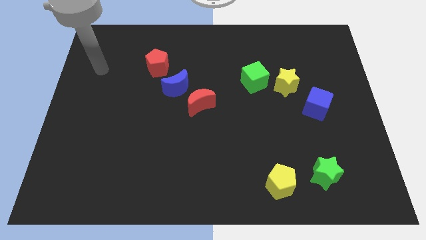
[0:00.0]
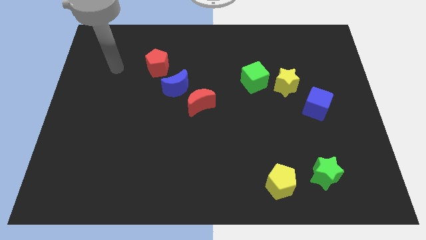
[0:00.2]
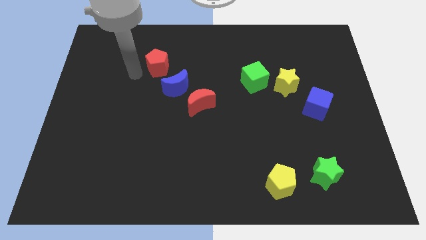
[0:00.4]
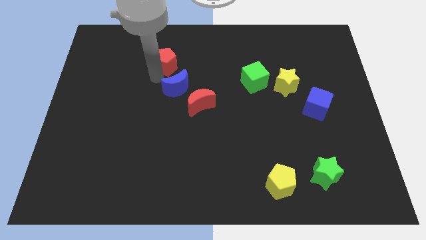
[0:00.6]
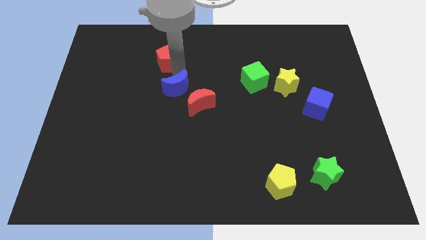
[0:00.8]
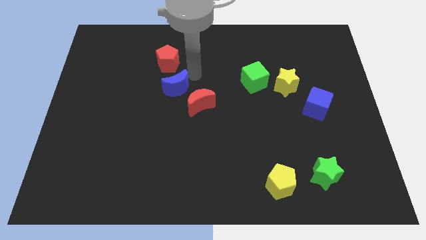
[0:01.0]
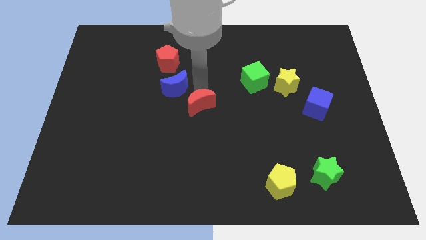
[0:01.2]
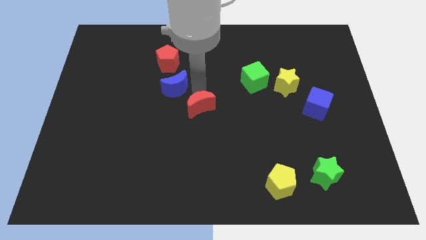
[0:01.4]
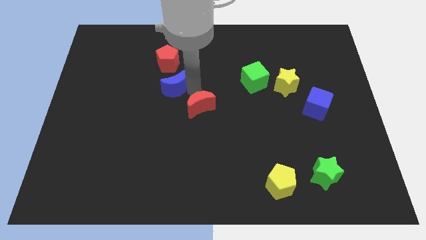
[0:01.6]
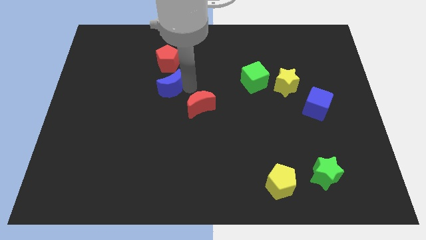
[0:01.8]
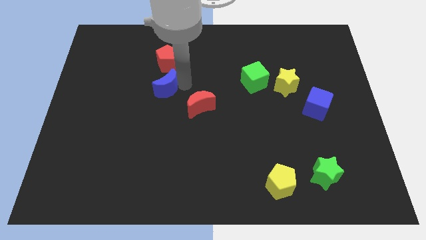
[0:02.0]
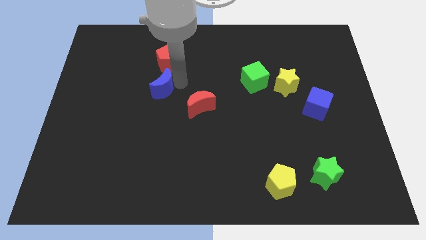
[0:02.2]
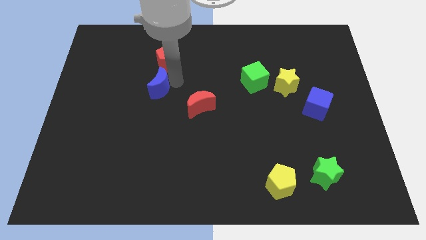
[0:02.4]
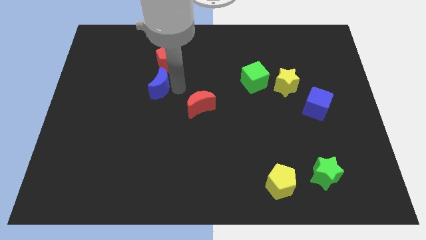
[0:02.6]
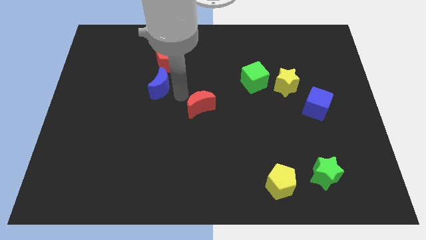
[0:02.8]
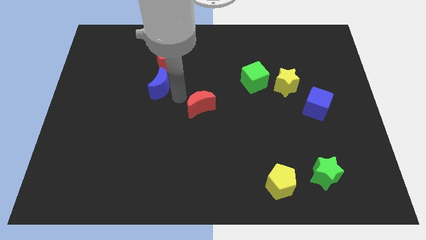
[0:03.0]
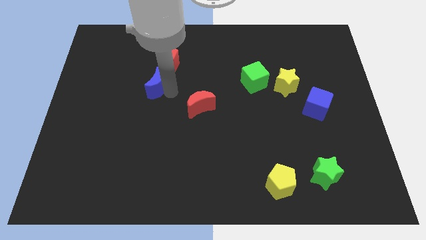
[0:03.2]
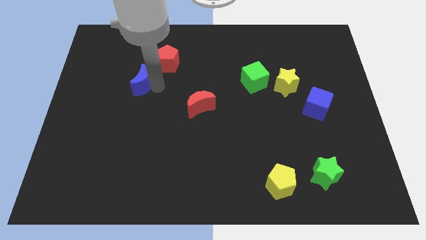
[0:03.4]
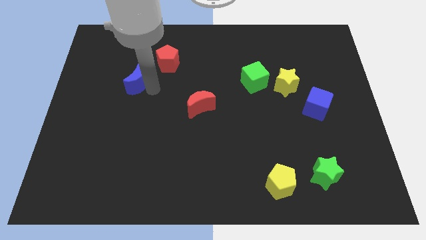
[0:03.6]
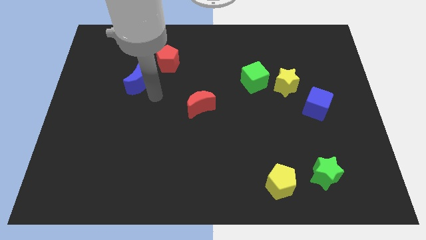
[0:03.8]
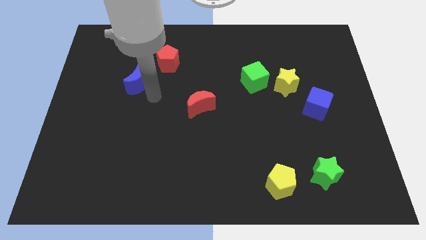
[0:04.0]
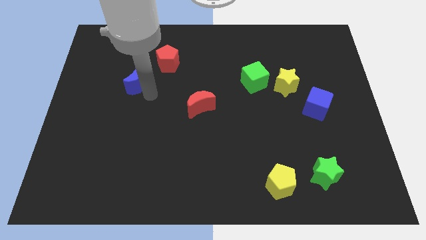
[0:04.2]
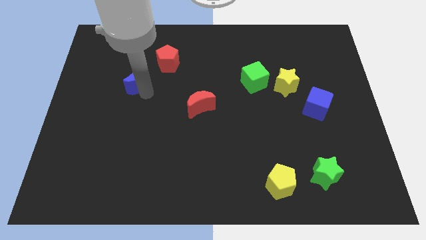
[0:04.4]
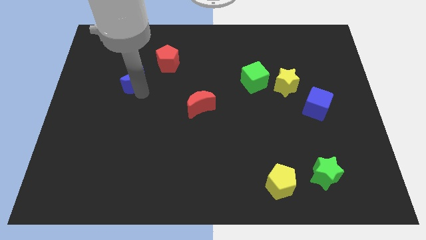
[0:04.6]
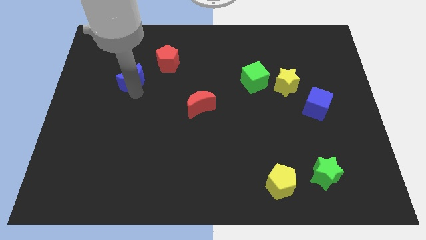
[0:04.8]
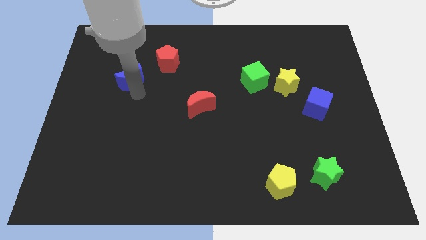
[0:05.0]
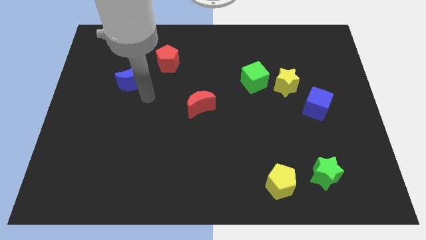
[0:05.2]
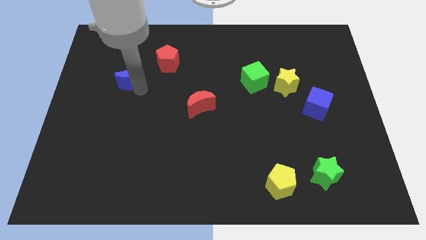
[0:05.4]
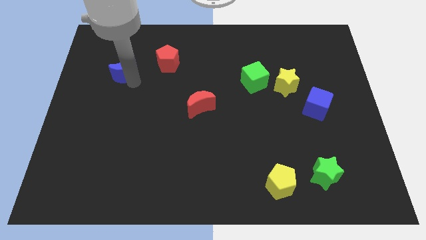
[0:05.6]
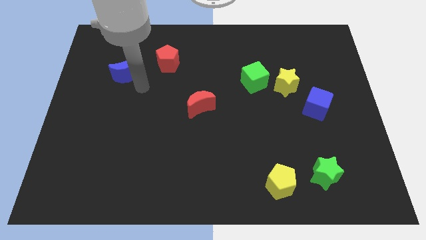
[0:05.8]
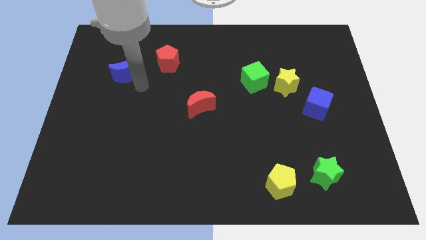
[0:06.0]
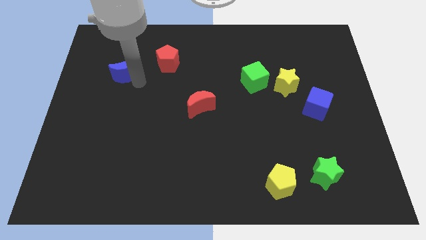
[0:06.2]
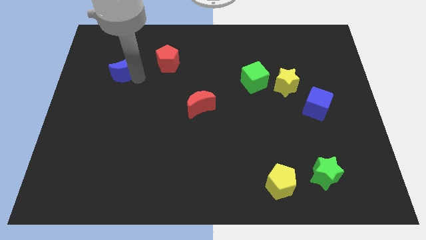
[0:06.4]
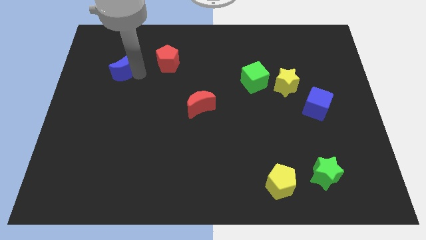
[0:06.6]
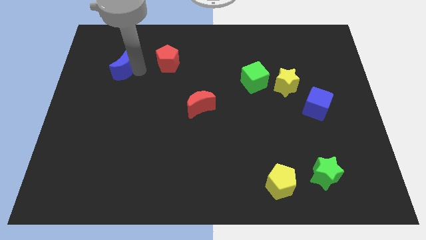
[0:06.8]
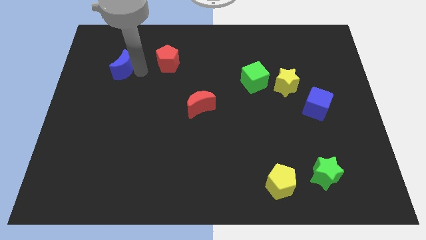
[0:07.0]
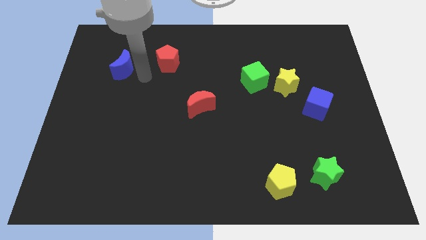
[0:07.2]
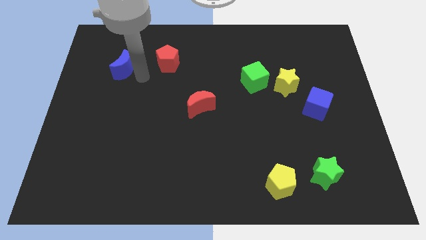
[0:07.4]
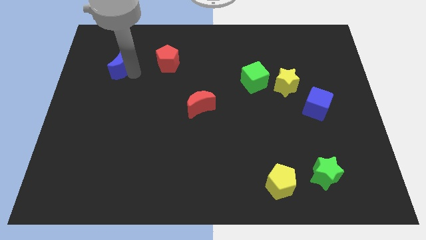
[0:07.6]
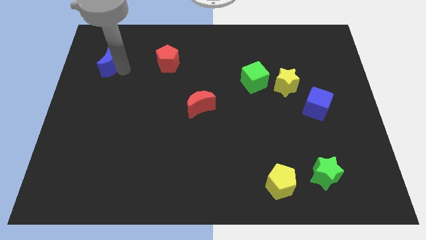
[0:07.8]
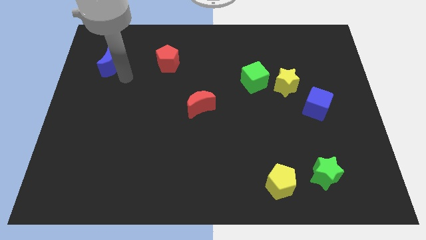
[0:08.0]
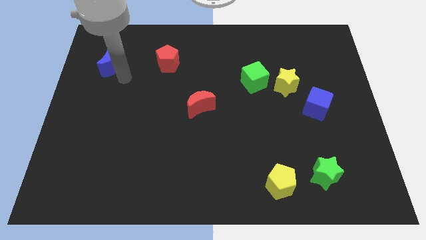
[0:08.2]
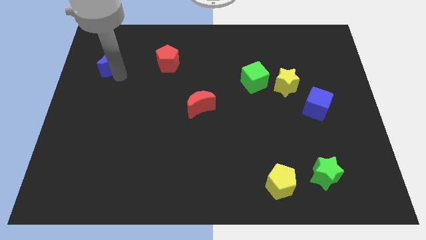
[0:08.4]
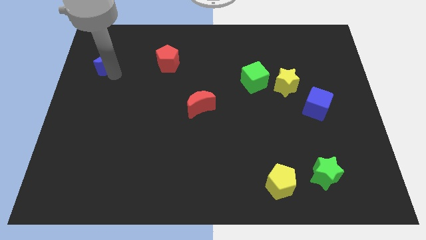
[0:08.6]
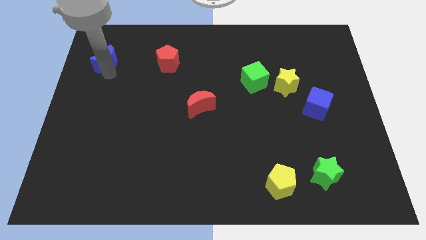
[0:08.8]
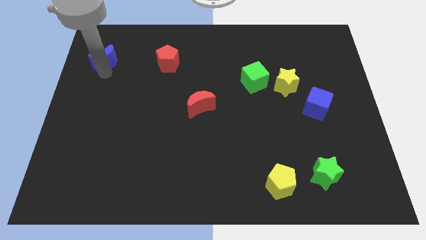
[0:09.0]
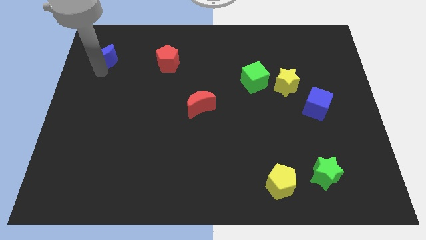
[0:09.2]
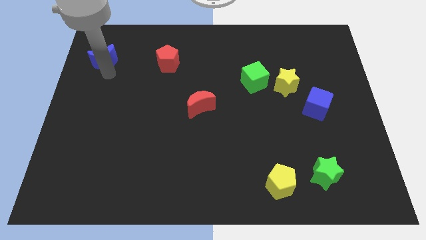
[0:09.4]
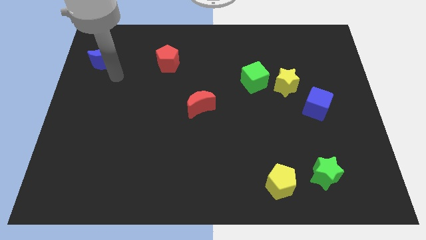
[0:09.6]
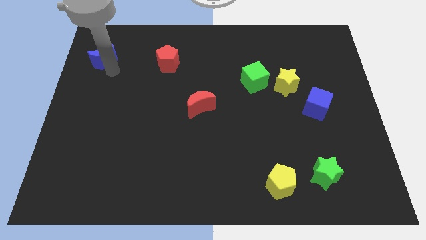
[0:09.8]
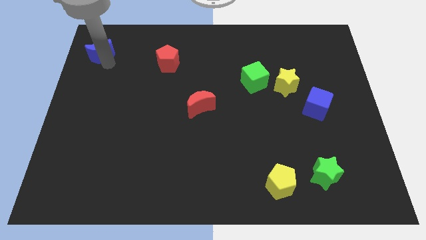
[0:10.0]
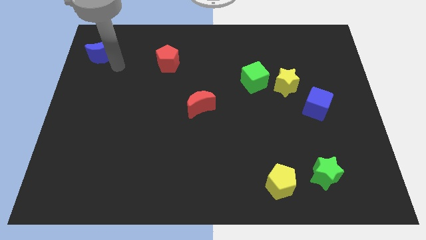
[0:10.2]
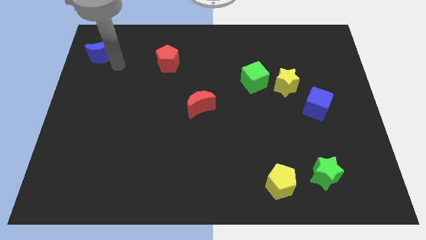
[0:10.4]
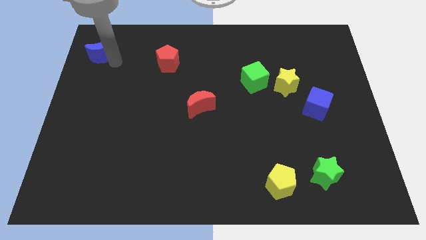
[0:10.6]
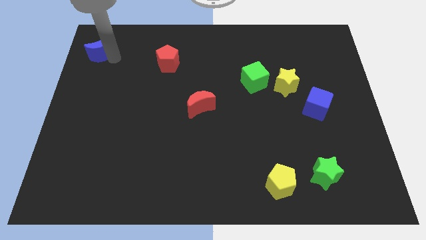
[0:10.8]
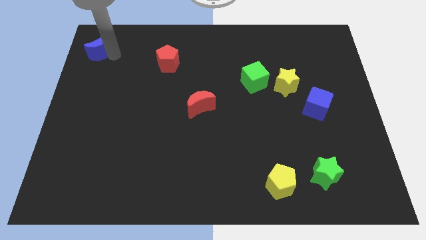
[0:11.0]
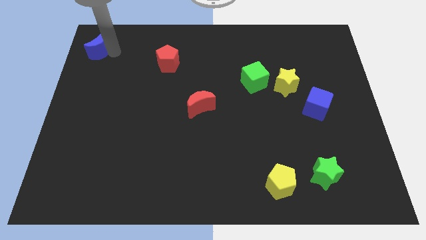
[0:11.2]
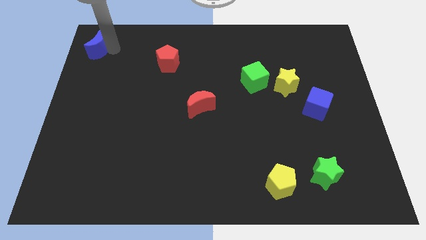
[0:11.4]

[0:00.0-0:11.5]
move the blue moon to the top left

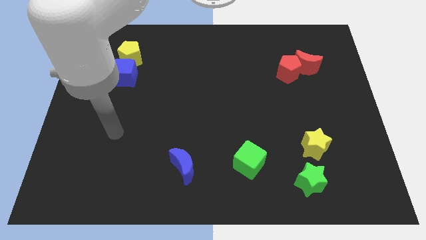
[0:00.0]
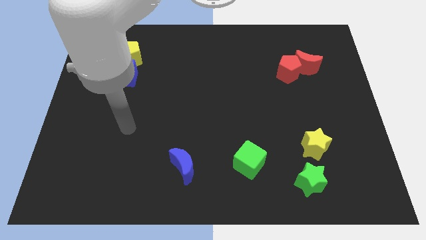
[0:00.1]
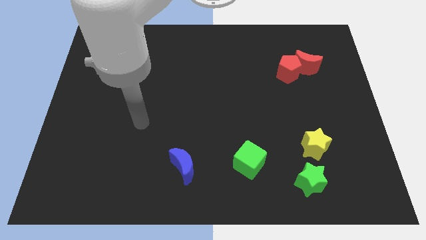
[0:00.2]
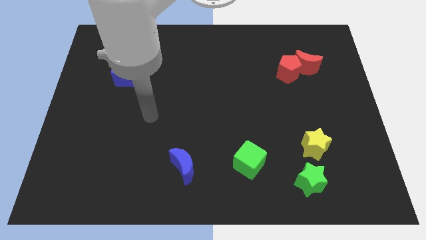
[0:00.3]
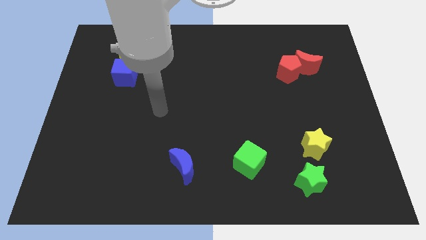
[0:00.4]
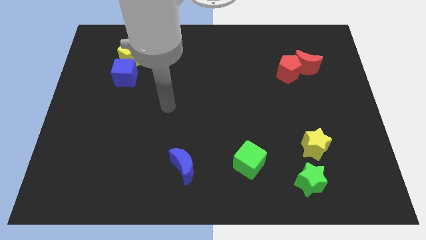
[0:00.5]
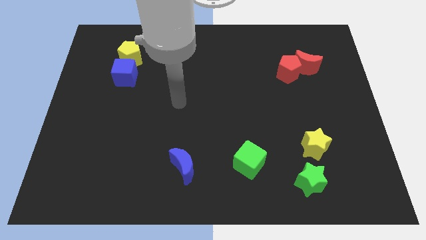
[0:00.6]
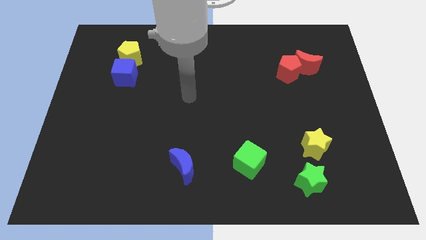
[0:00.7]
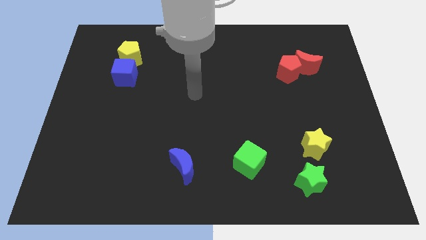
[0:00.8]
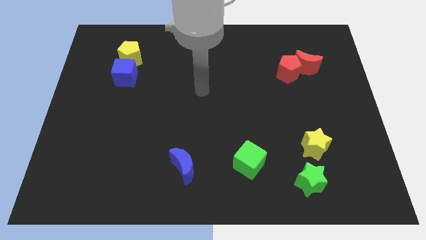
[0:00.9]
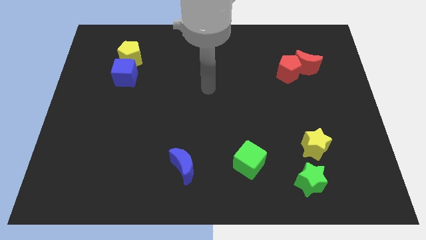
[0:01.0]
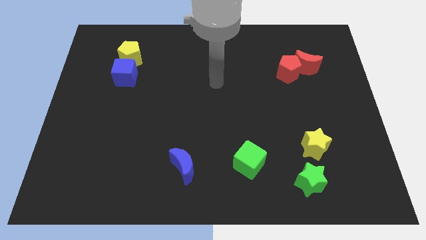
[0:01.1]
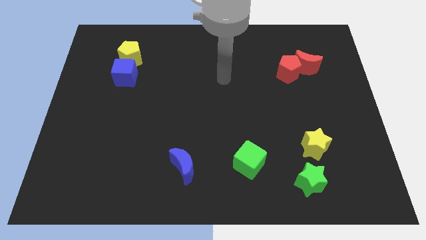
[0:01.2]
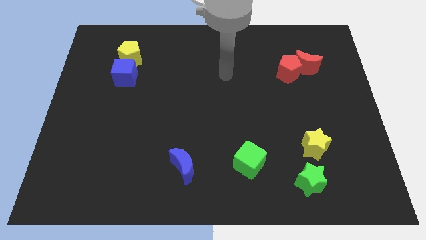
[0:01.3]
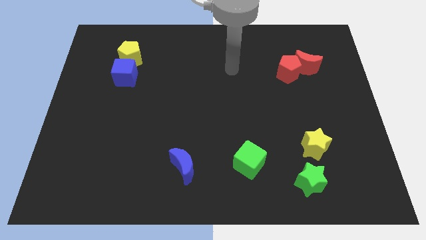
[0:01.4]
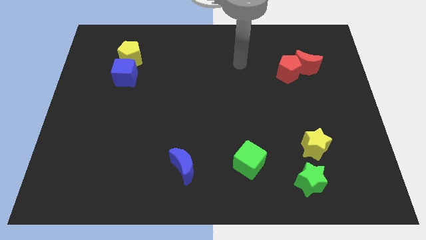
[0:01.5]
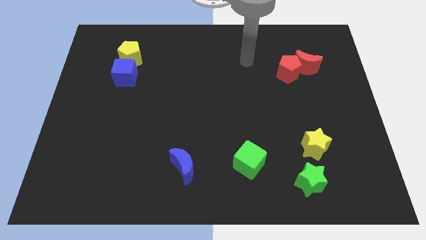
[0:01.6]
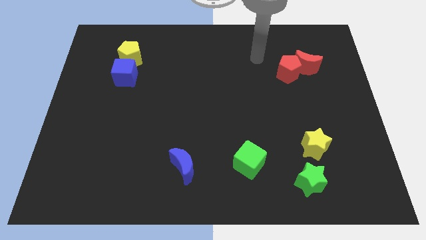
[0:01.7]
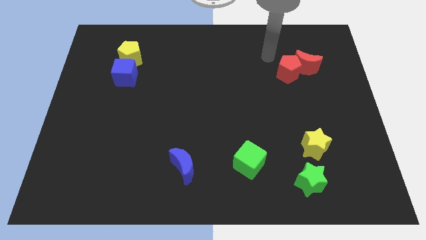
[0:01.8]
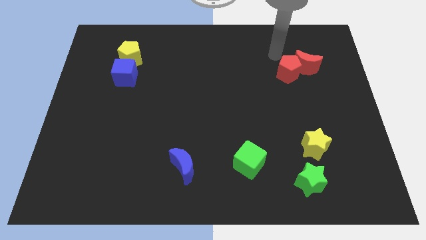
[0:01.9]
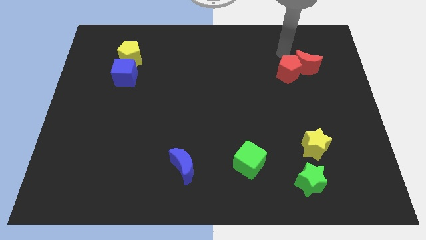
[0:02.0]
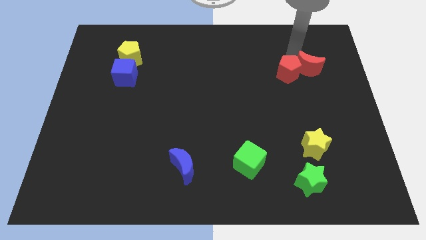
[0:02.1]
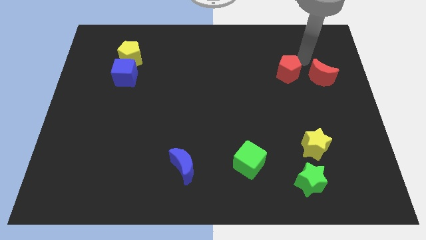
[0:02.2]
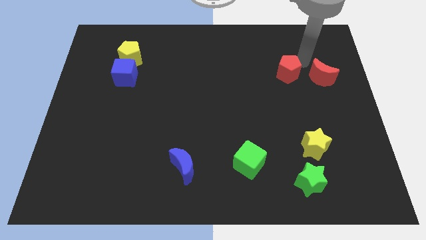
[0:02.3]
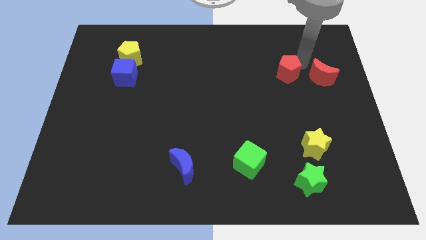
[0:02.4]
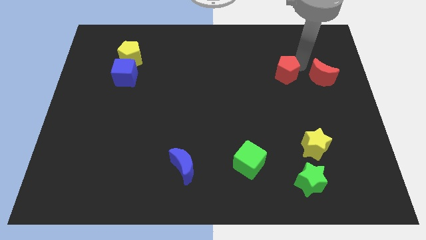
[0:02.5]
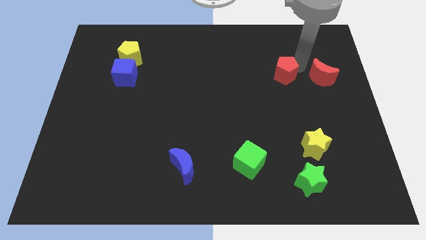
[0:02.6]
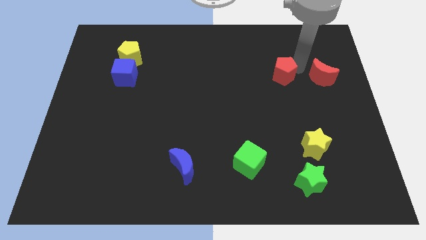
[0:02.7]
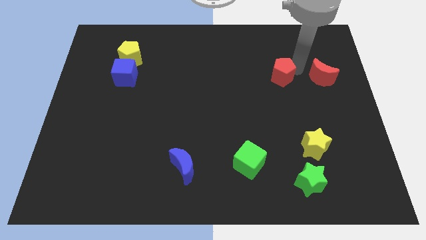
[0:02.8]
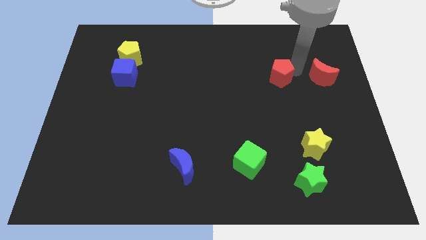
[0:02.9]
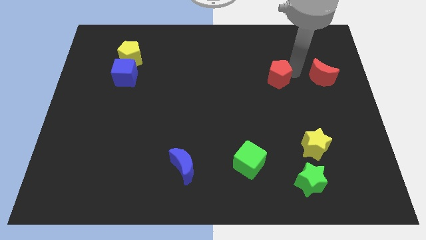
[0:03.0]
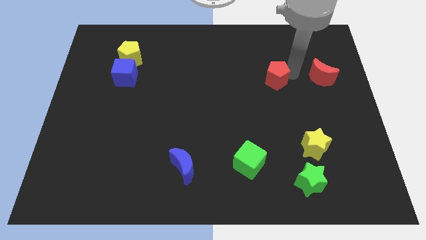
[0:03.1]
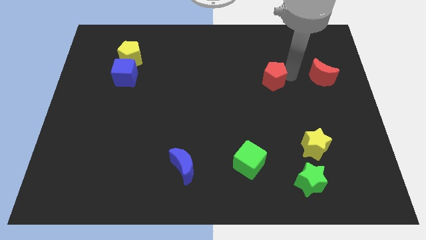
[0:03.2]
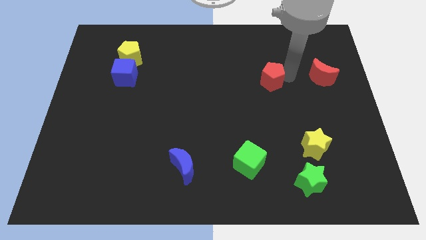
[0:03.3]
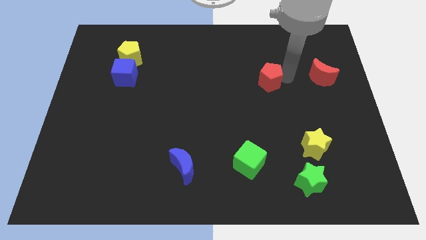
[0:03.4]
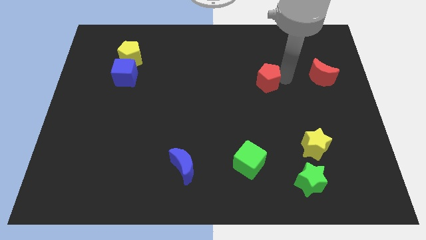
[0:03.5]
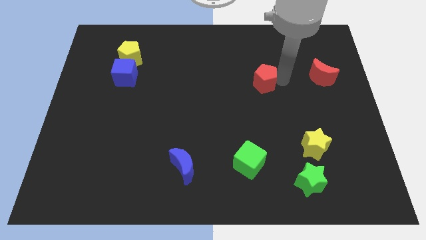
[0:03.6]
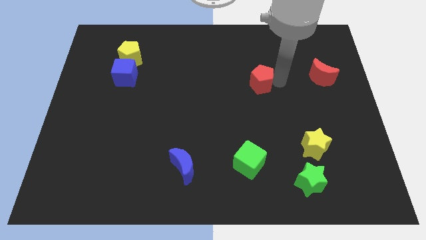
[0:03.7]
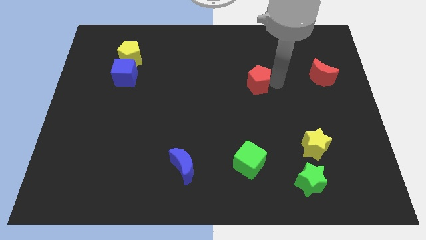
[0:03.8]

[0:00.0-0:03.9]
move the red pentagon to the middle of the board
